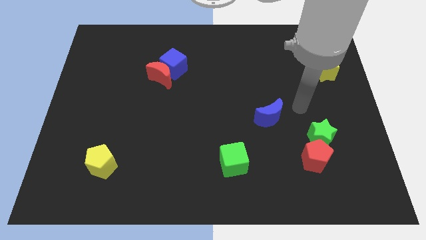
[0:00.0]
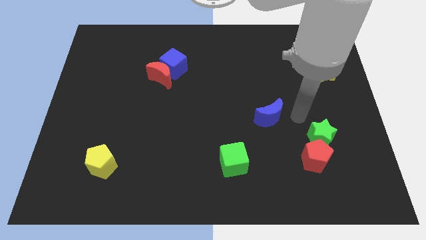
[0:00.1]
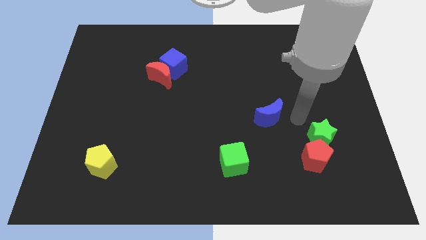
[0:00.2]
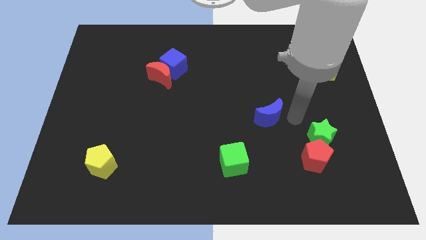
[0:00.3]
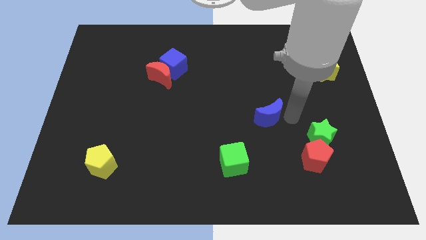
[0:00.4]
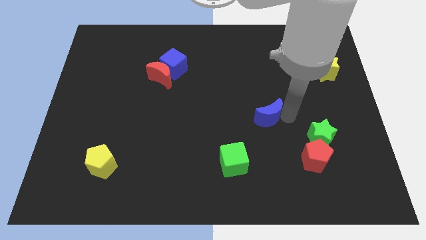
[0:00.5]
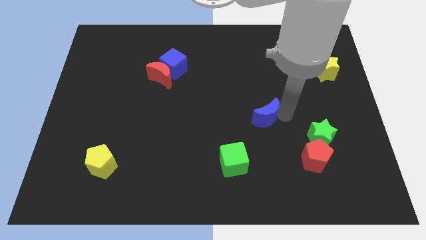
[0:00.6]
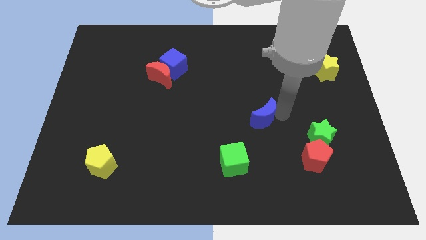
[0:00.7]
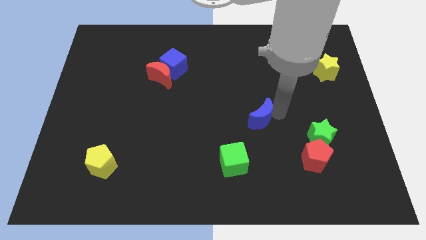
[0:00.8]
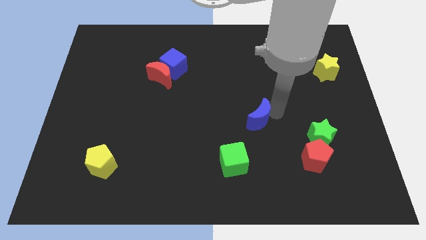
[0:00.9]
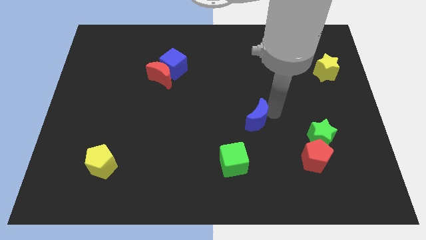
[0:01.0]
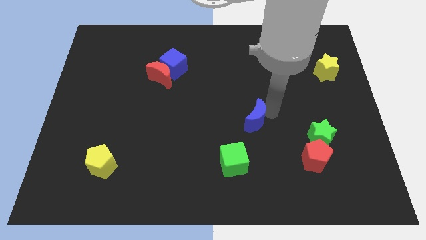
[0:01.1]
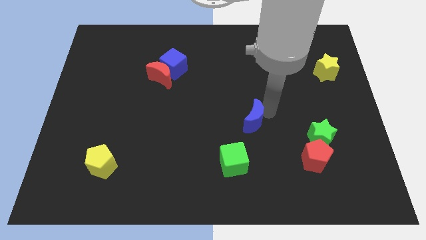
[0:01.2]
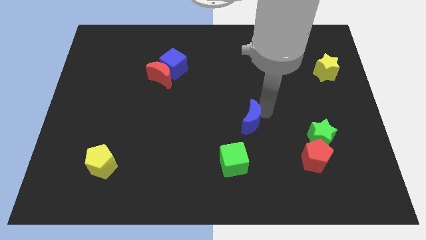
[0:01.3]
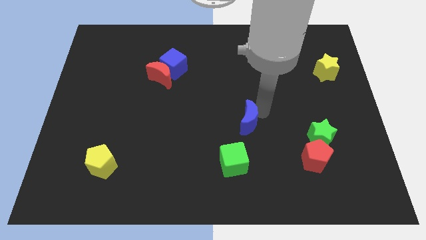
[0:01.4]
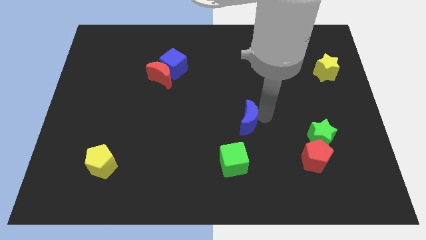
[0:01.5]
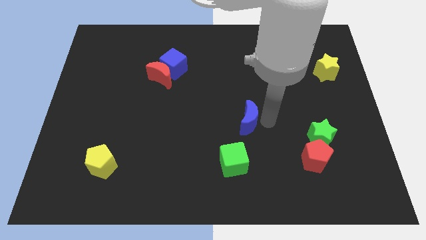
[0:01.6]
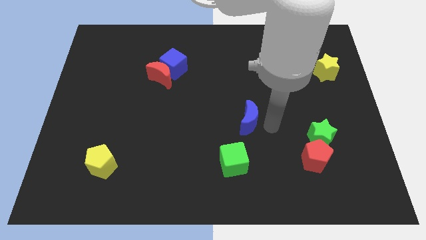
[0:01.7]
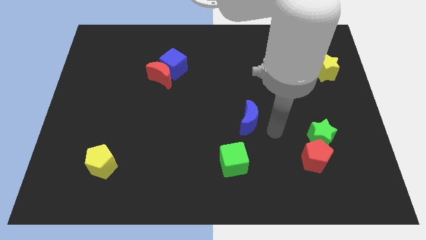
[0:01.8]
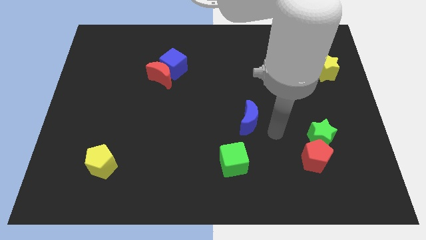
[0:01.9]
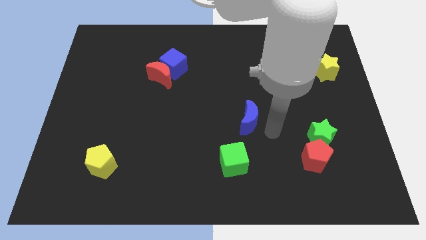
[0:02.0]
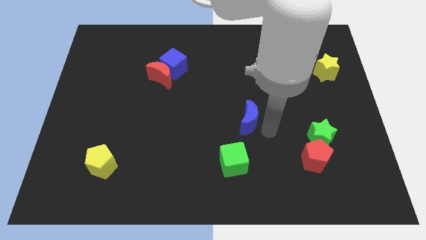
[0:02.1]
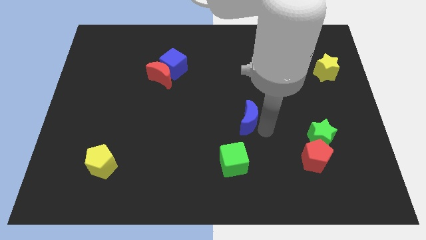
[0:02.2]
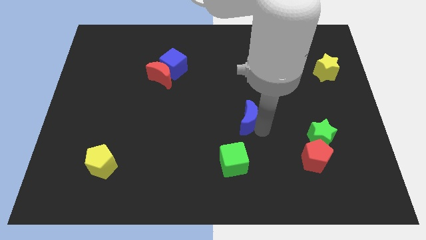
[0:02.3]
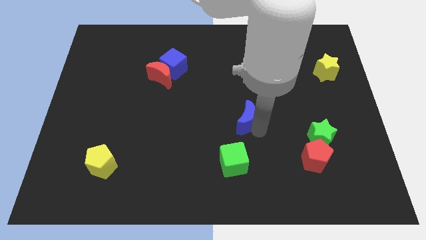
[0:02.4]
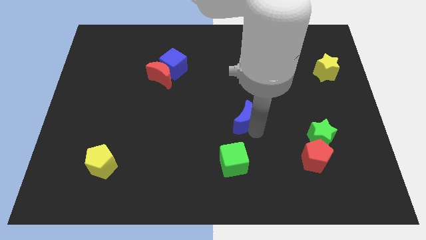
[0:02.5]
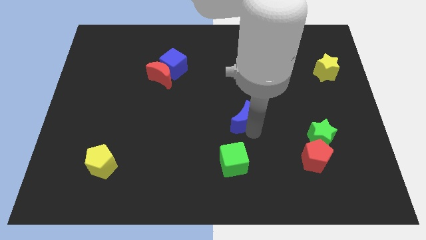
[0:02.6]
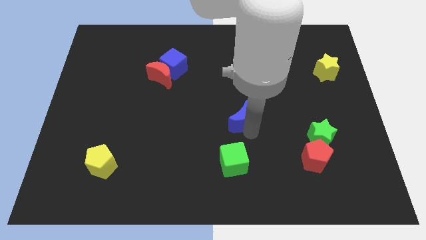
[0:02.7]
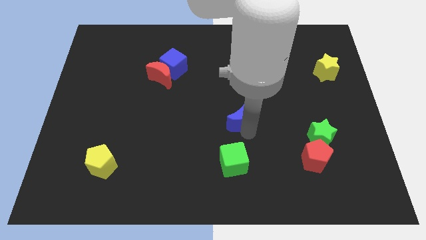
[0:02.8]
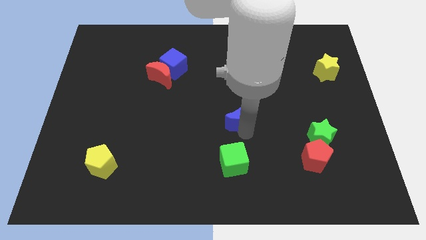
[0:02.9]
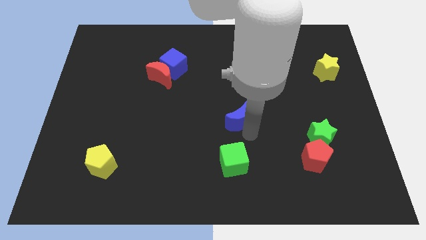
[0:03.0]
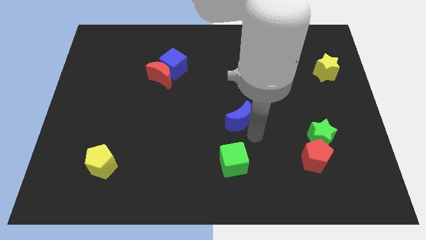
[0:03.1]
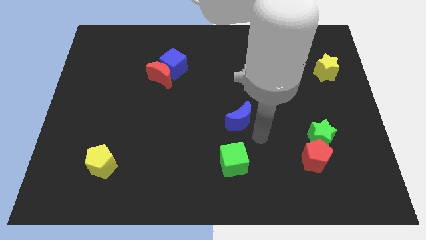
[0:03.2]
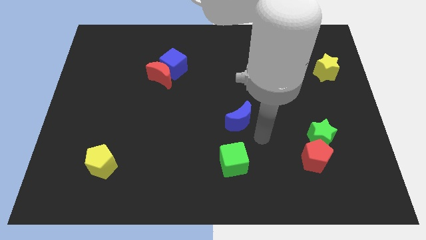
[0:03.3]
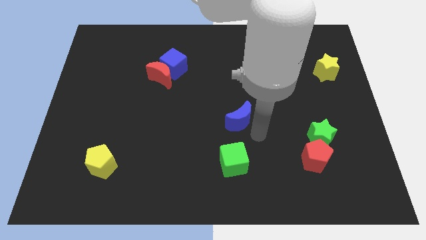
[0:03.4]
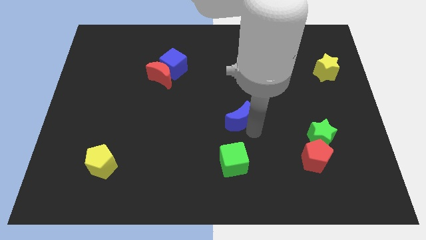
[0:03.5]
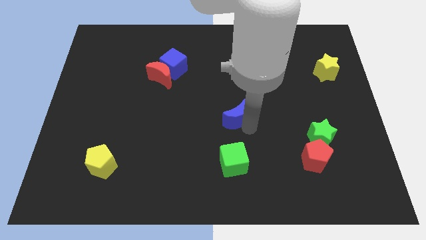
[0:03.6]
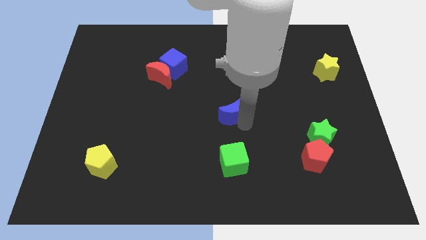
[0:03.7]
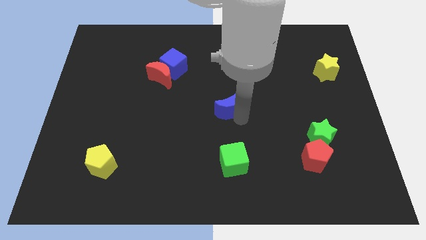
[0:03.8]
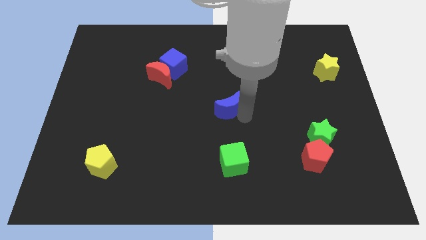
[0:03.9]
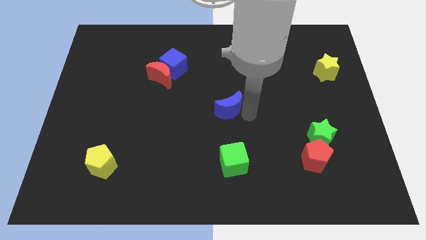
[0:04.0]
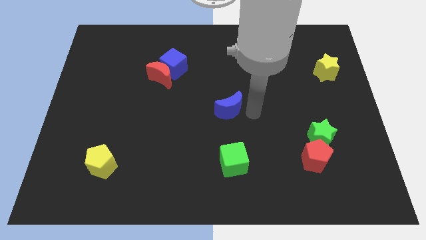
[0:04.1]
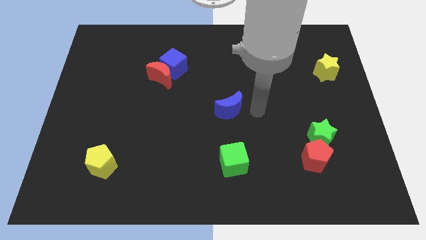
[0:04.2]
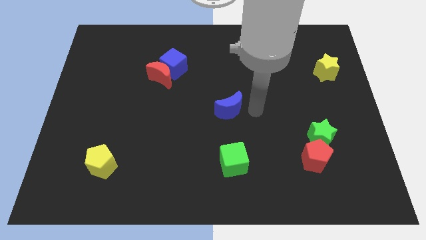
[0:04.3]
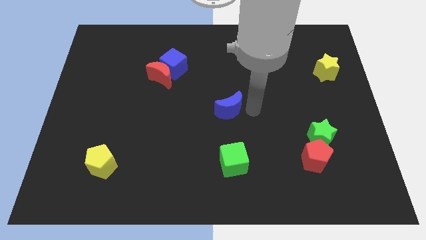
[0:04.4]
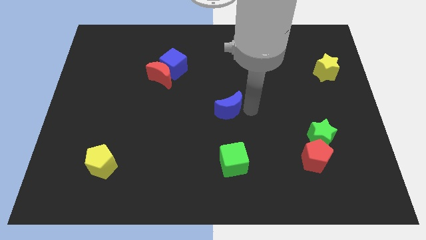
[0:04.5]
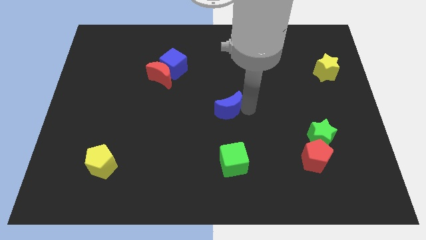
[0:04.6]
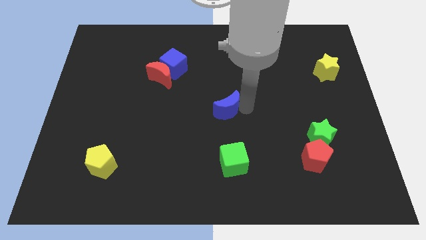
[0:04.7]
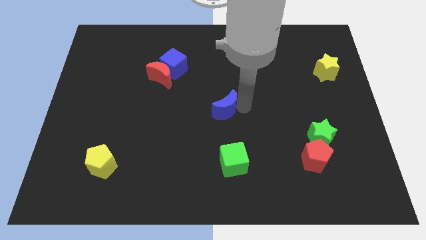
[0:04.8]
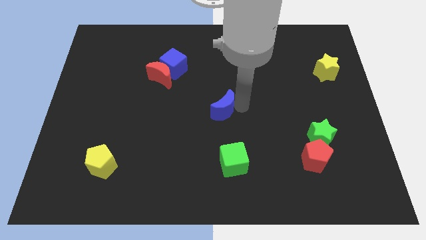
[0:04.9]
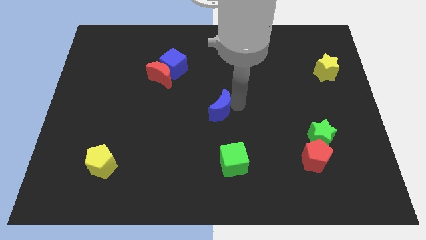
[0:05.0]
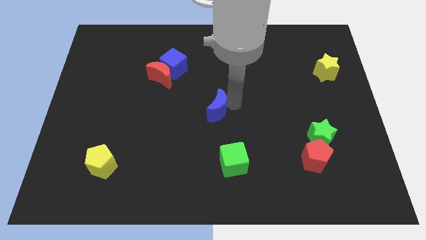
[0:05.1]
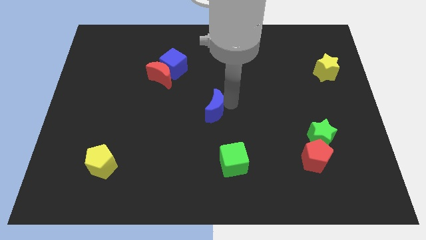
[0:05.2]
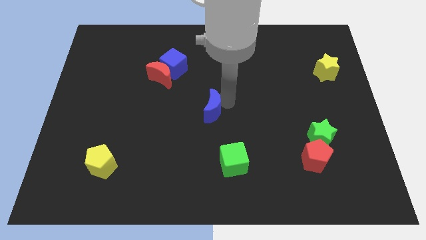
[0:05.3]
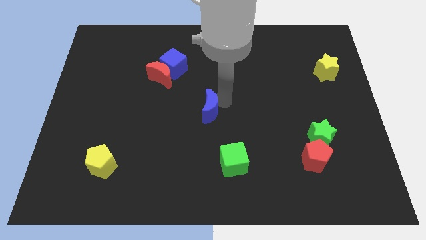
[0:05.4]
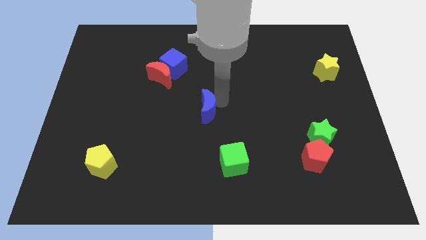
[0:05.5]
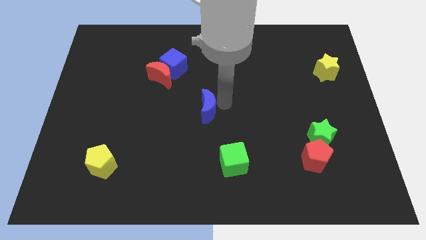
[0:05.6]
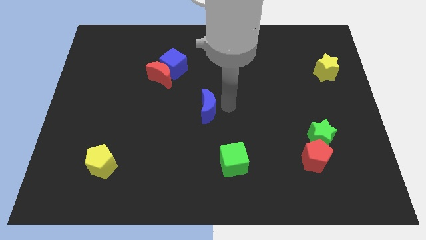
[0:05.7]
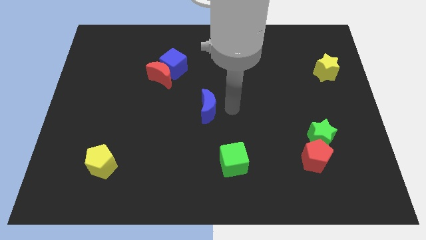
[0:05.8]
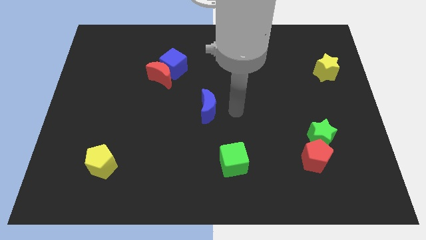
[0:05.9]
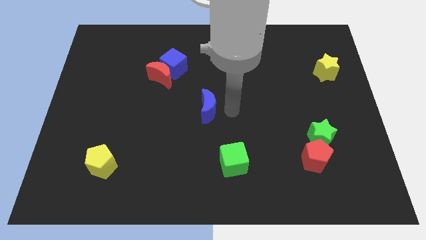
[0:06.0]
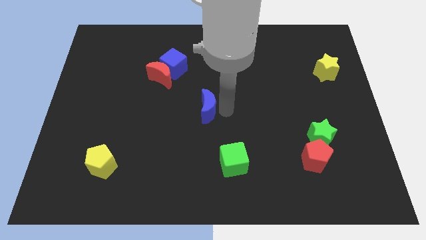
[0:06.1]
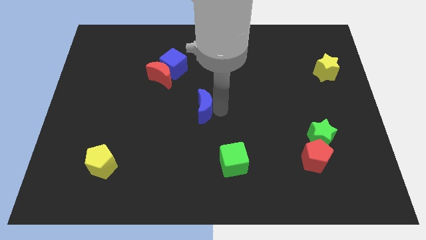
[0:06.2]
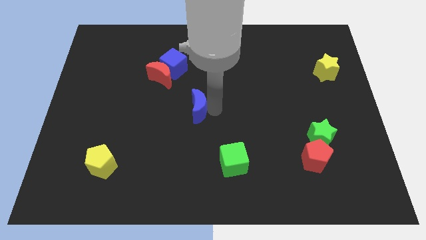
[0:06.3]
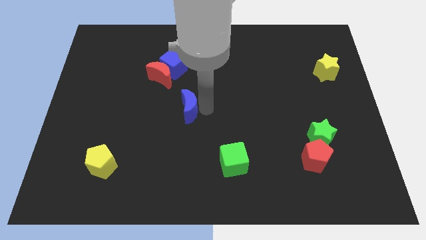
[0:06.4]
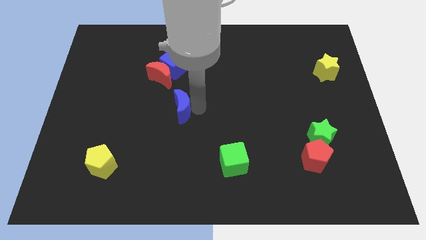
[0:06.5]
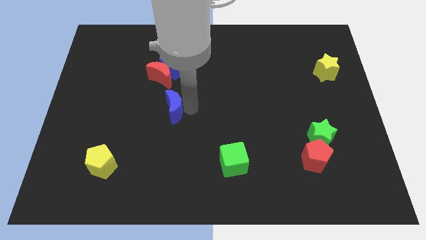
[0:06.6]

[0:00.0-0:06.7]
push the blue moon below the red moon

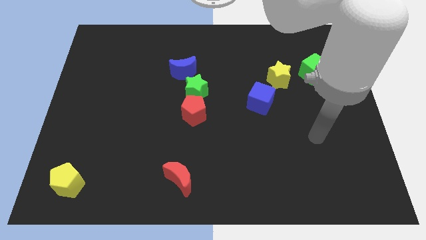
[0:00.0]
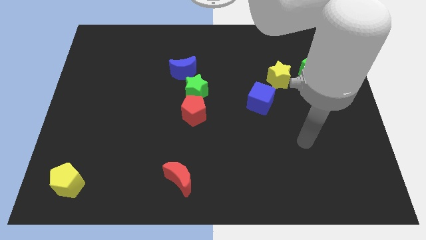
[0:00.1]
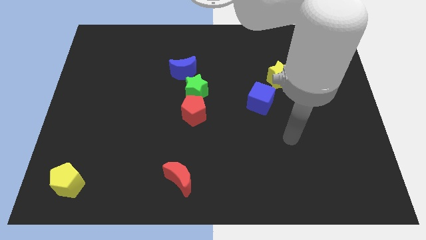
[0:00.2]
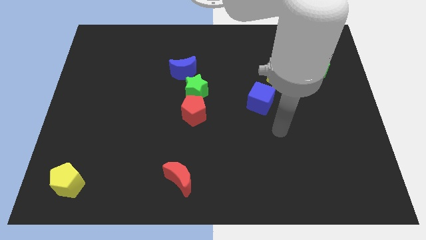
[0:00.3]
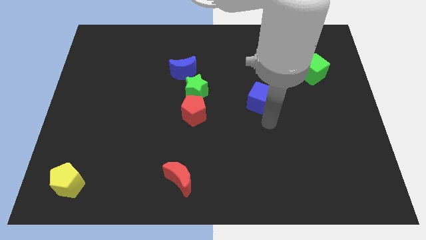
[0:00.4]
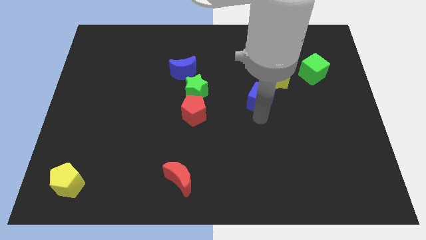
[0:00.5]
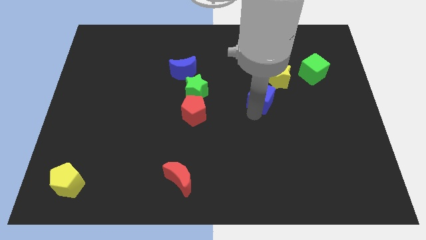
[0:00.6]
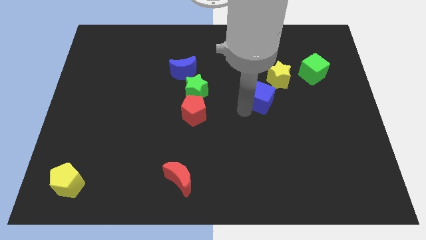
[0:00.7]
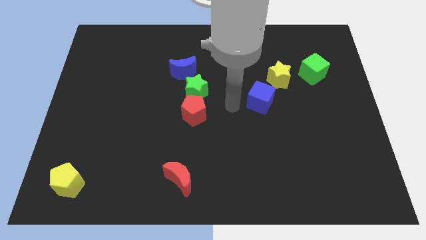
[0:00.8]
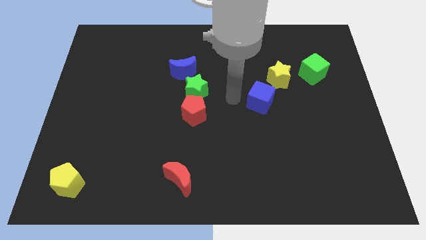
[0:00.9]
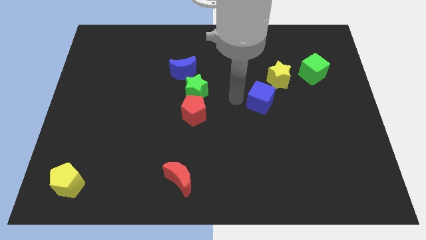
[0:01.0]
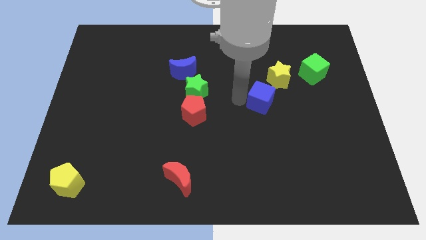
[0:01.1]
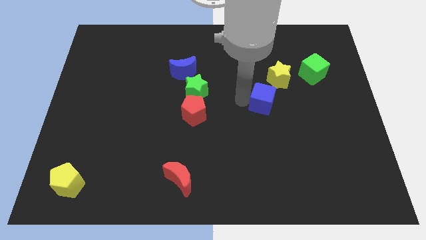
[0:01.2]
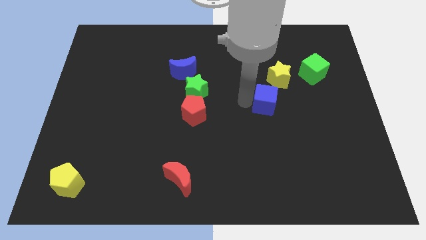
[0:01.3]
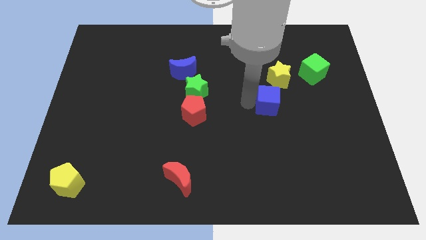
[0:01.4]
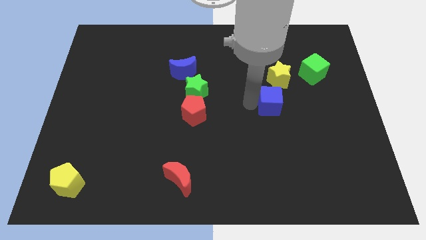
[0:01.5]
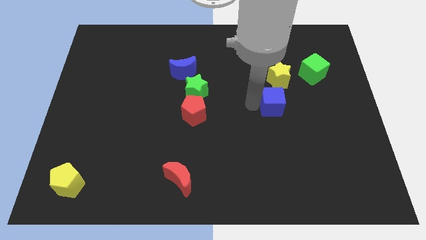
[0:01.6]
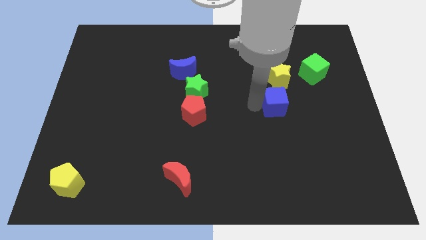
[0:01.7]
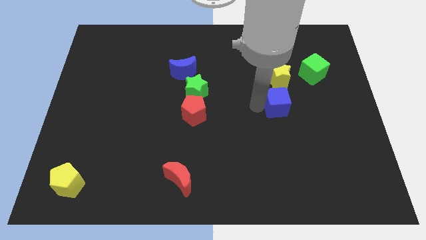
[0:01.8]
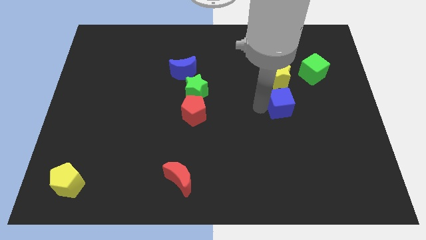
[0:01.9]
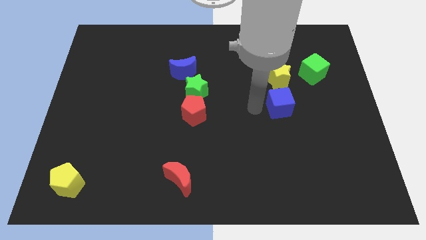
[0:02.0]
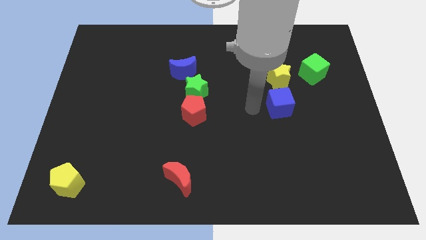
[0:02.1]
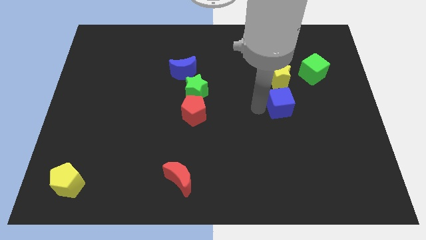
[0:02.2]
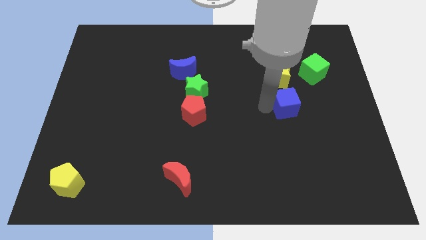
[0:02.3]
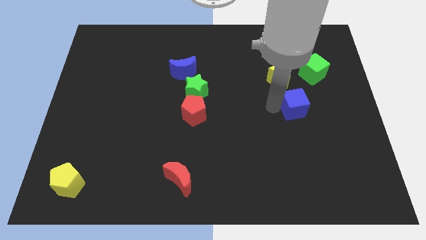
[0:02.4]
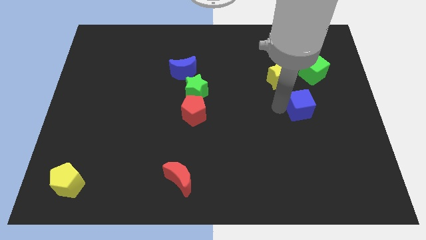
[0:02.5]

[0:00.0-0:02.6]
slide the blue cube to the bottom of the green cube
